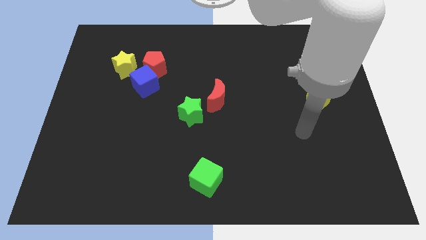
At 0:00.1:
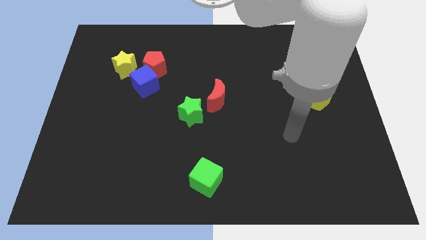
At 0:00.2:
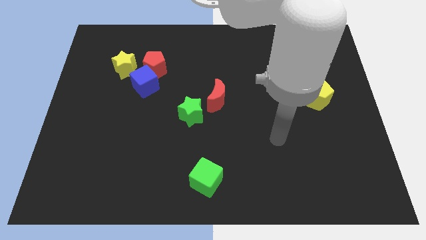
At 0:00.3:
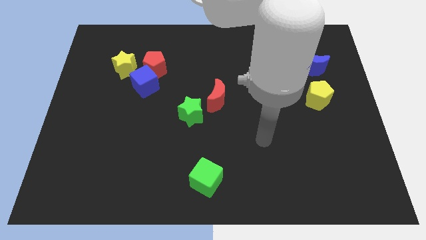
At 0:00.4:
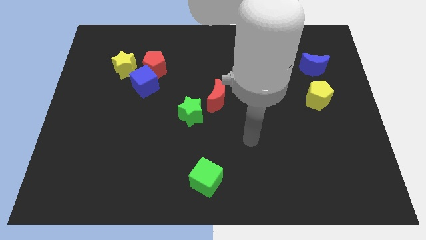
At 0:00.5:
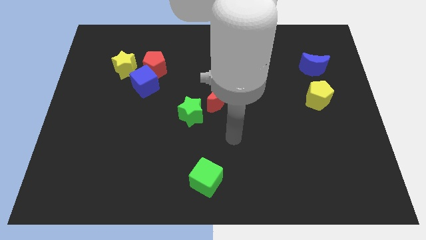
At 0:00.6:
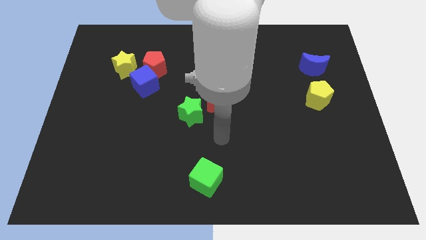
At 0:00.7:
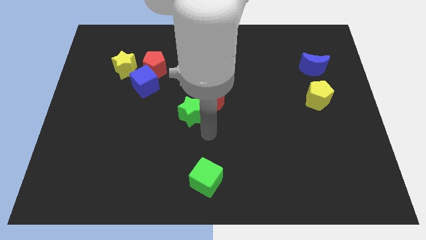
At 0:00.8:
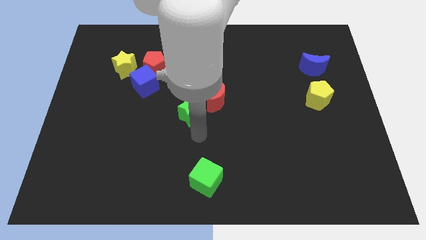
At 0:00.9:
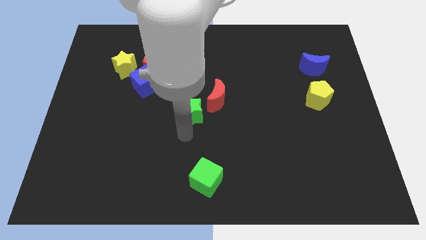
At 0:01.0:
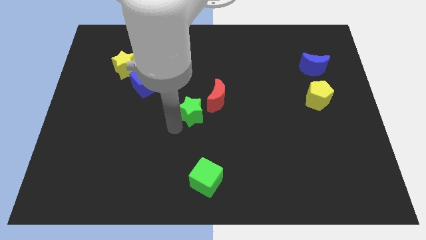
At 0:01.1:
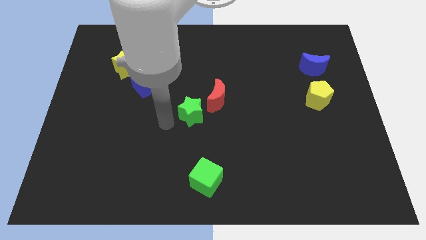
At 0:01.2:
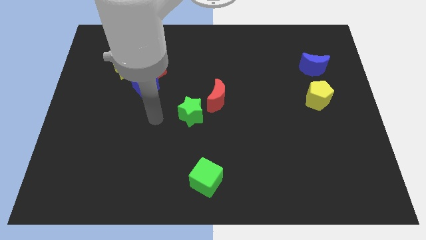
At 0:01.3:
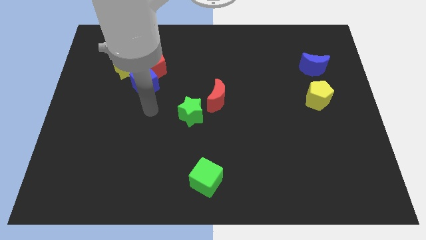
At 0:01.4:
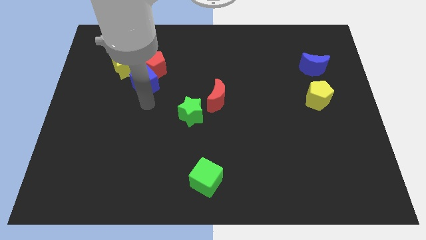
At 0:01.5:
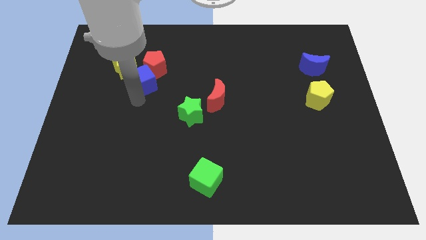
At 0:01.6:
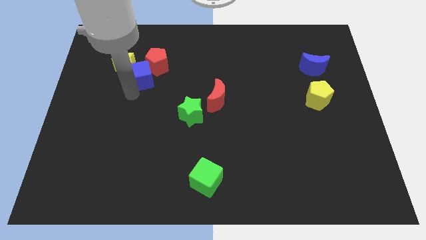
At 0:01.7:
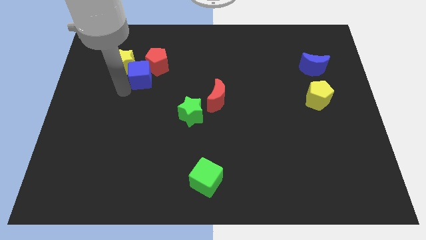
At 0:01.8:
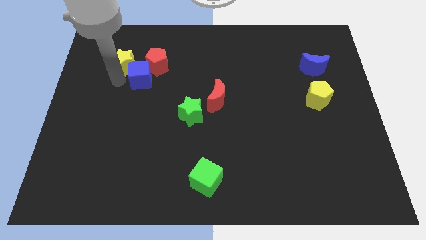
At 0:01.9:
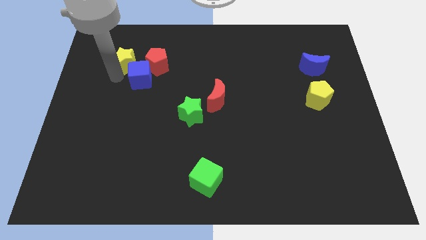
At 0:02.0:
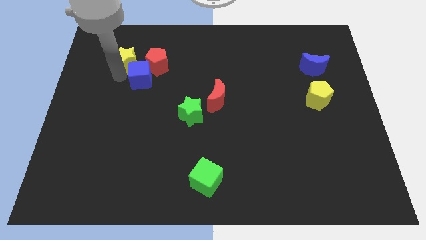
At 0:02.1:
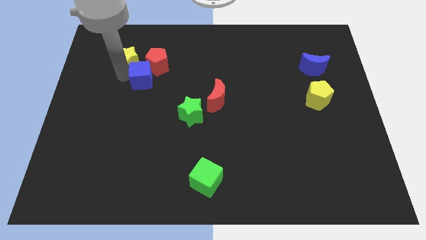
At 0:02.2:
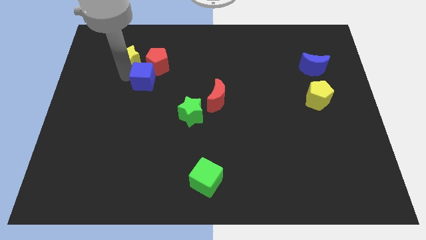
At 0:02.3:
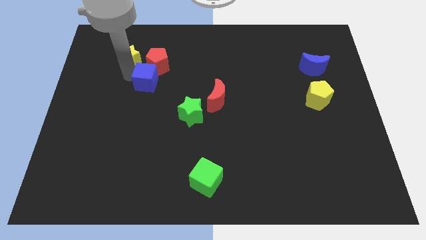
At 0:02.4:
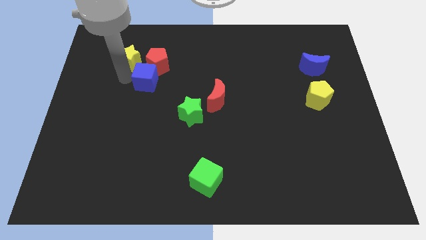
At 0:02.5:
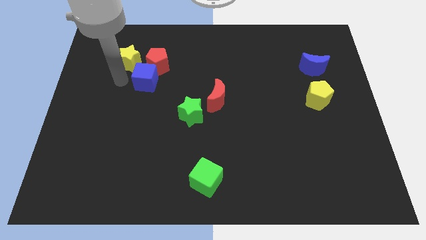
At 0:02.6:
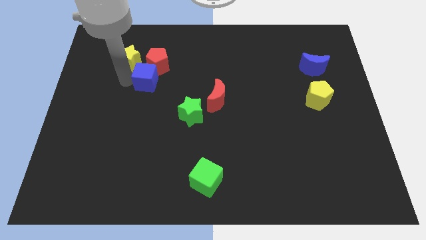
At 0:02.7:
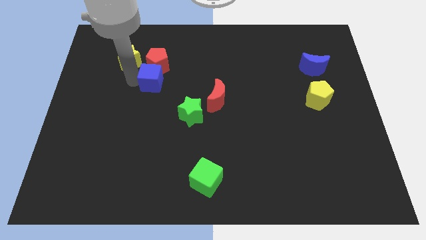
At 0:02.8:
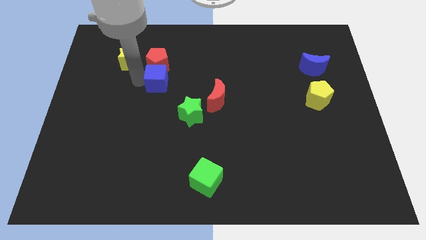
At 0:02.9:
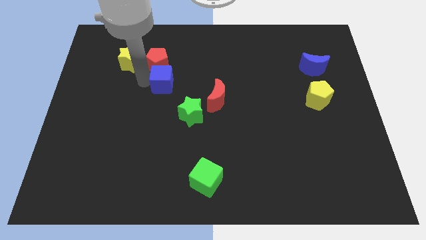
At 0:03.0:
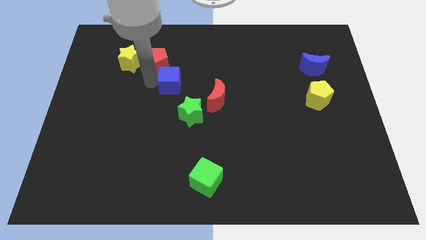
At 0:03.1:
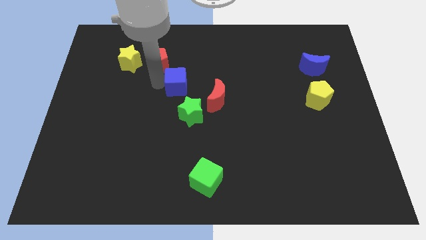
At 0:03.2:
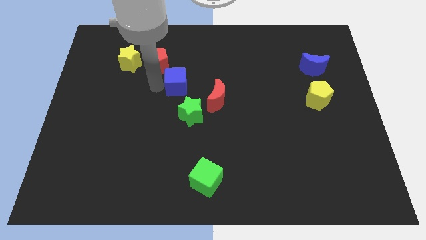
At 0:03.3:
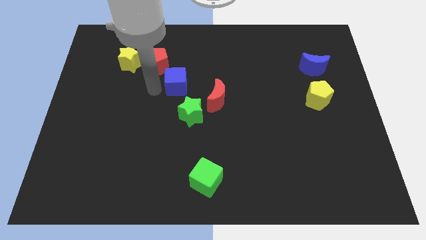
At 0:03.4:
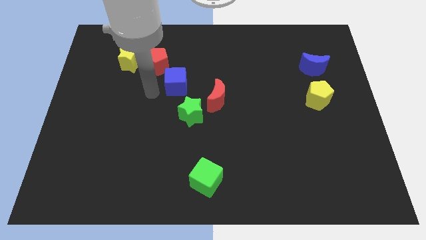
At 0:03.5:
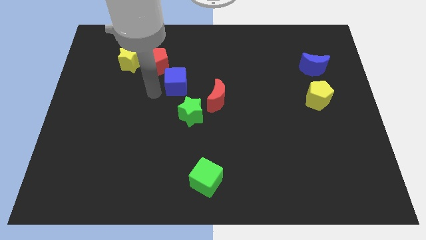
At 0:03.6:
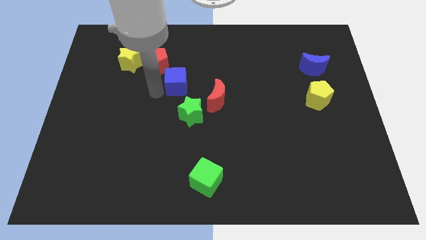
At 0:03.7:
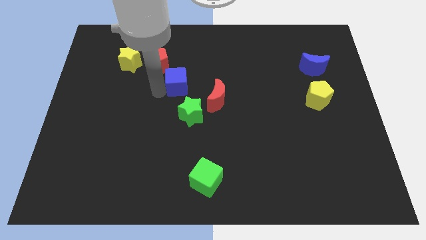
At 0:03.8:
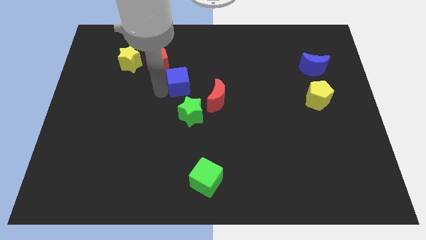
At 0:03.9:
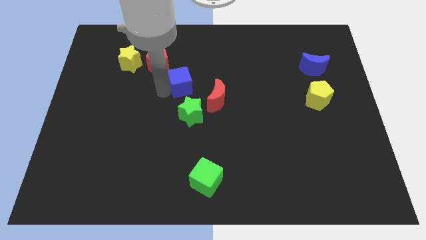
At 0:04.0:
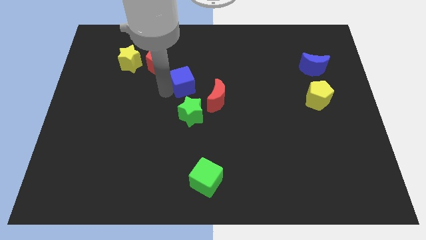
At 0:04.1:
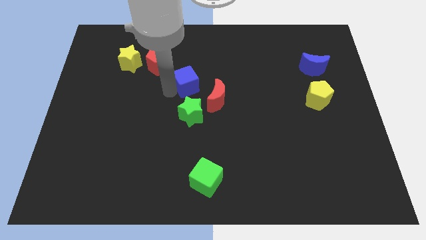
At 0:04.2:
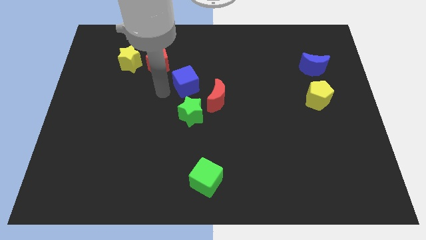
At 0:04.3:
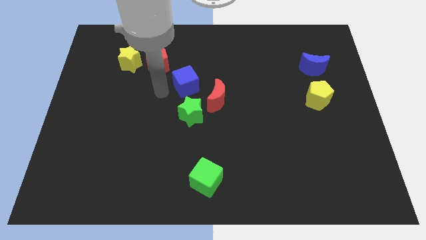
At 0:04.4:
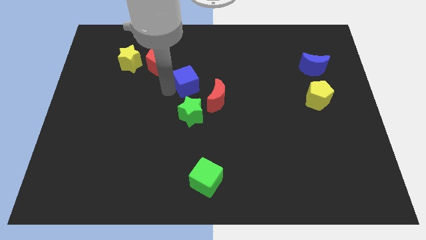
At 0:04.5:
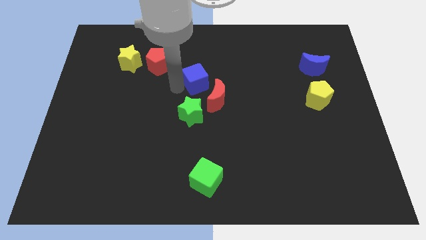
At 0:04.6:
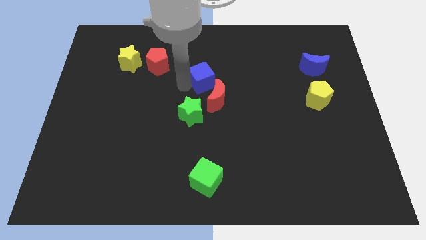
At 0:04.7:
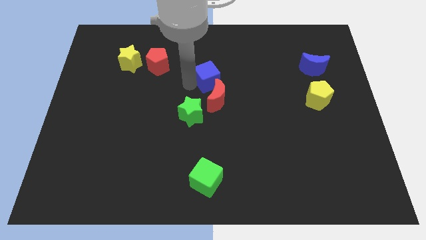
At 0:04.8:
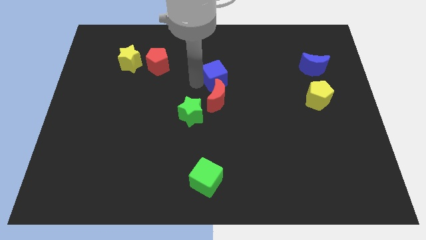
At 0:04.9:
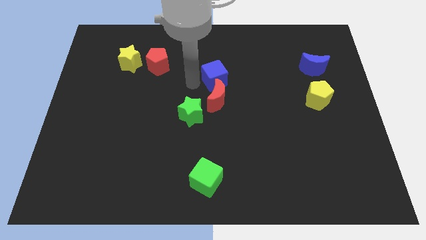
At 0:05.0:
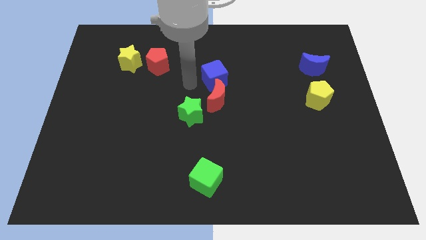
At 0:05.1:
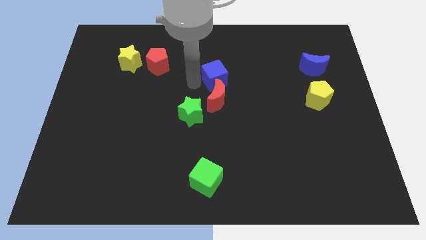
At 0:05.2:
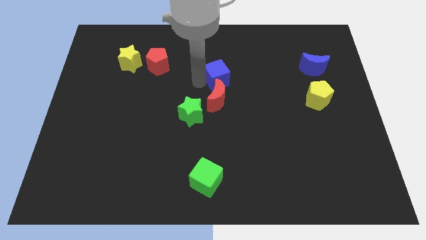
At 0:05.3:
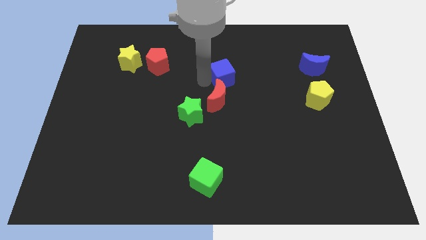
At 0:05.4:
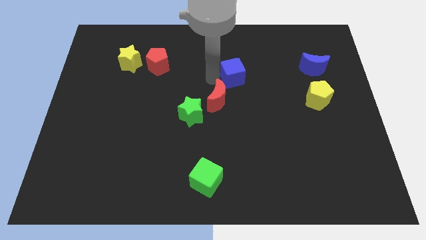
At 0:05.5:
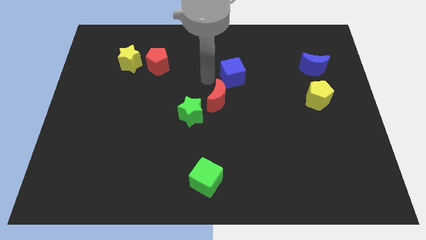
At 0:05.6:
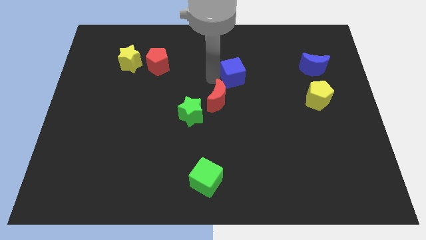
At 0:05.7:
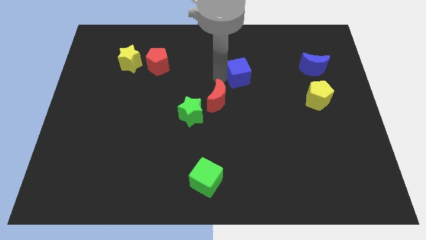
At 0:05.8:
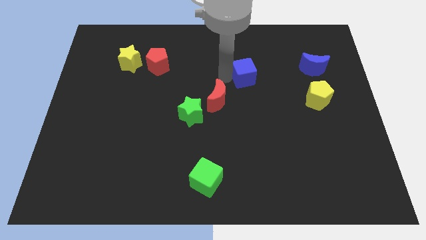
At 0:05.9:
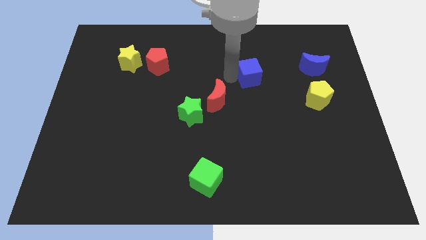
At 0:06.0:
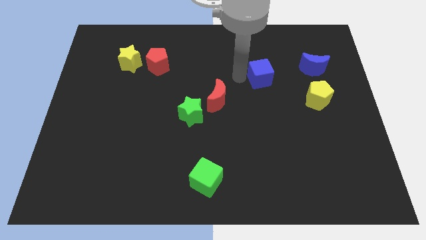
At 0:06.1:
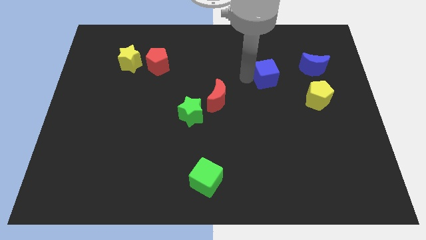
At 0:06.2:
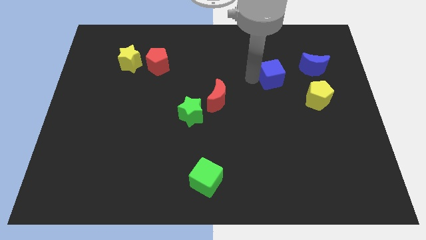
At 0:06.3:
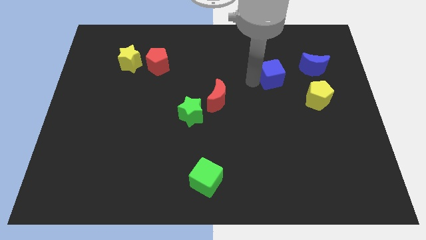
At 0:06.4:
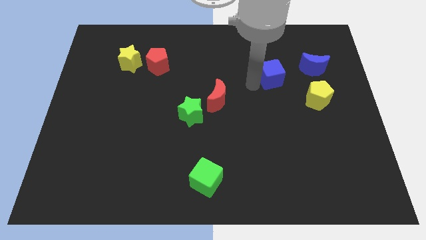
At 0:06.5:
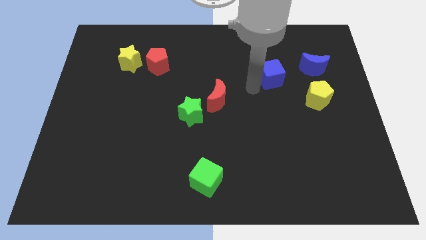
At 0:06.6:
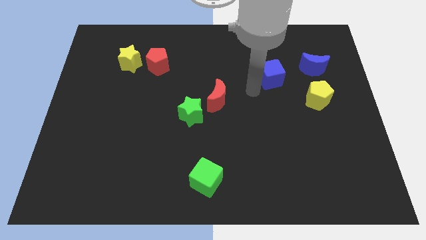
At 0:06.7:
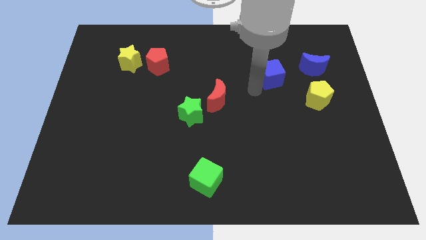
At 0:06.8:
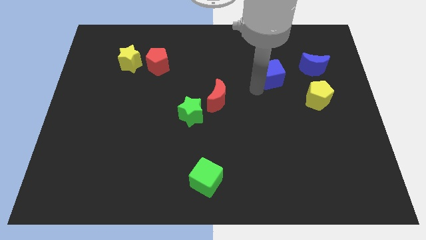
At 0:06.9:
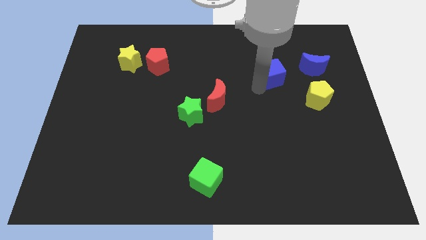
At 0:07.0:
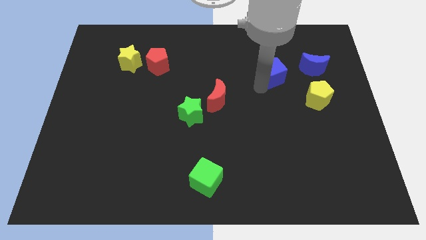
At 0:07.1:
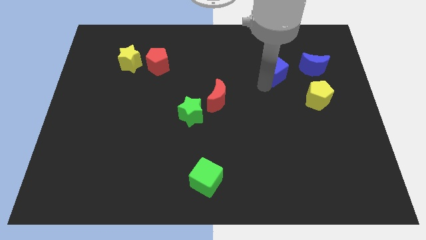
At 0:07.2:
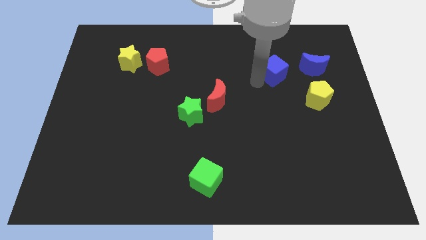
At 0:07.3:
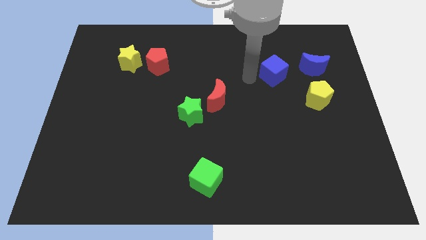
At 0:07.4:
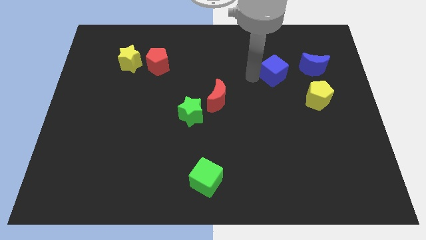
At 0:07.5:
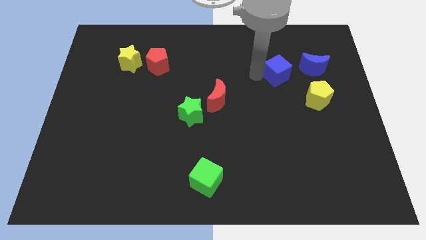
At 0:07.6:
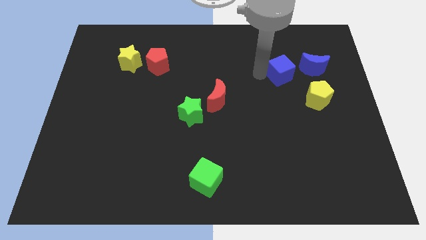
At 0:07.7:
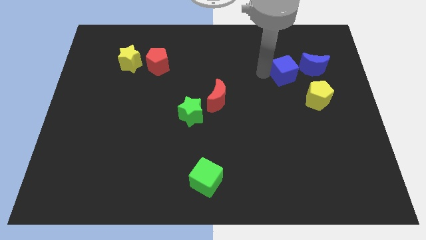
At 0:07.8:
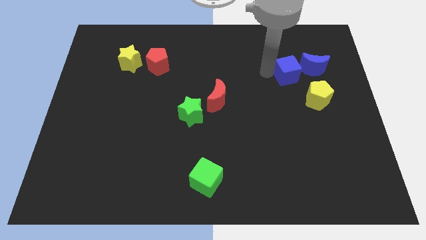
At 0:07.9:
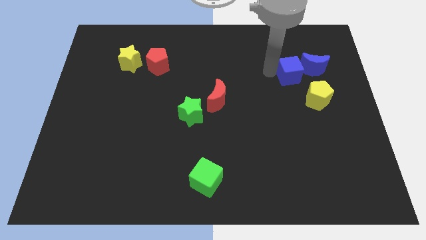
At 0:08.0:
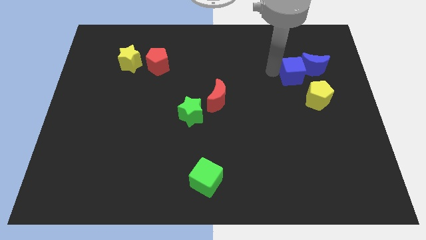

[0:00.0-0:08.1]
slide the blue cube close to the blue moon
